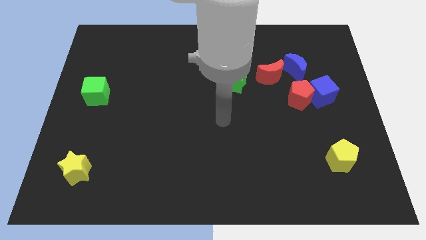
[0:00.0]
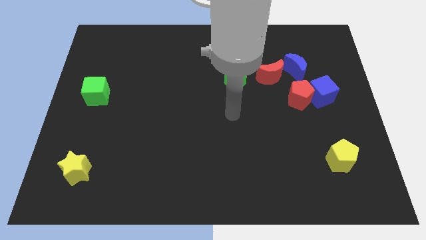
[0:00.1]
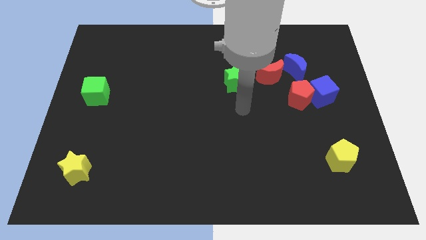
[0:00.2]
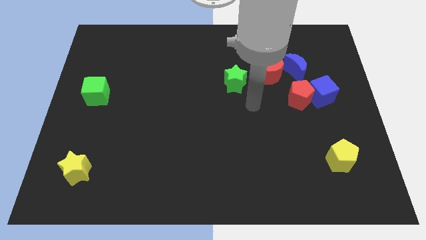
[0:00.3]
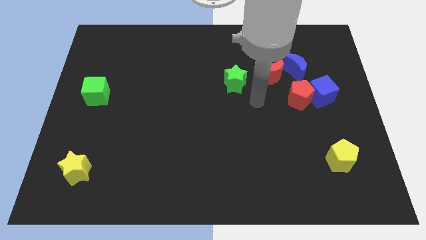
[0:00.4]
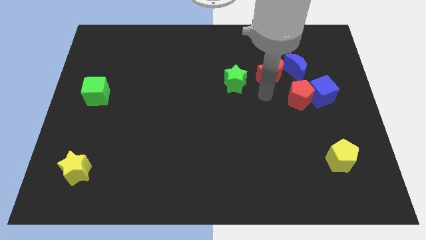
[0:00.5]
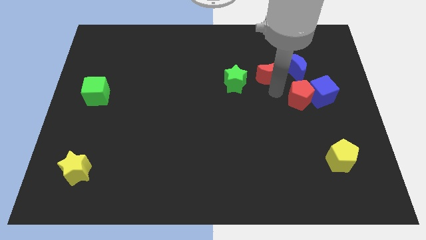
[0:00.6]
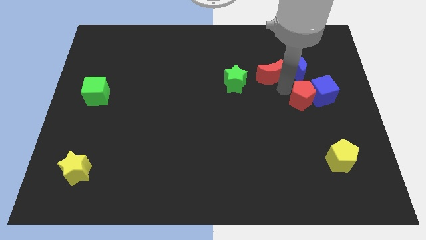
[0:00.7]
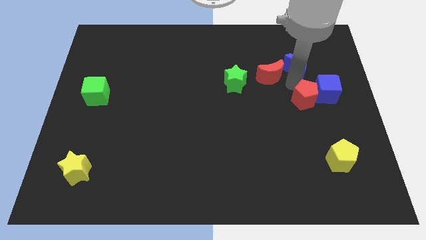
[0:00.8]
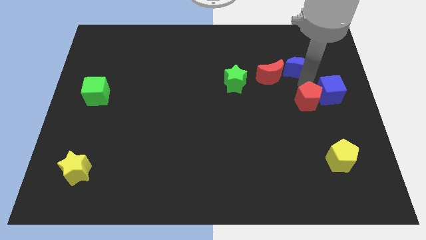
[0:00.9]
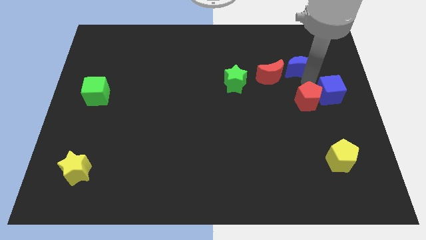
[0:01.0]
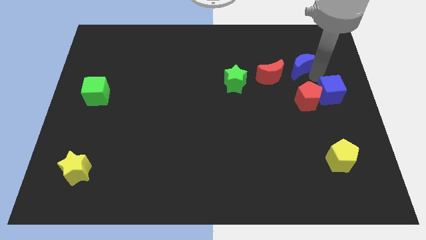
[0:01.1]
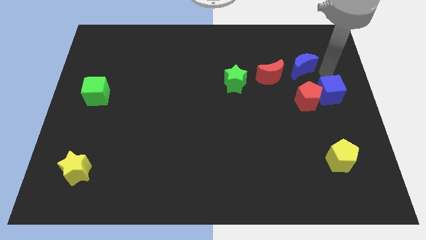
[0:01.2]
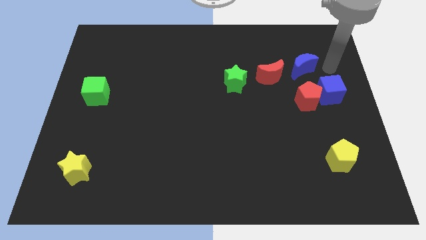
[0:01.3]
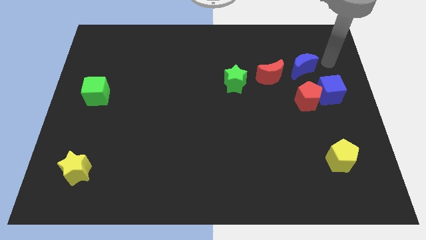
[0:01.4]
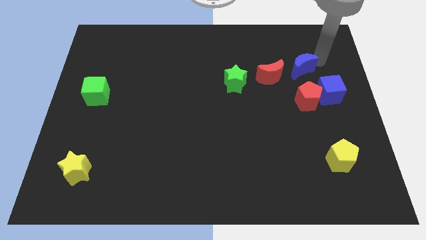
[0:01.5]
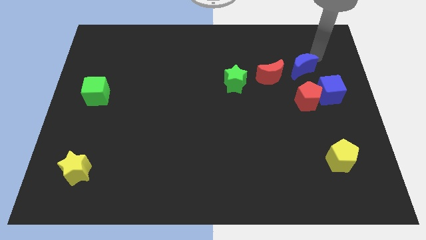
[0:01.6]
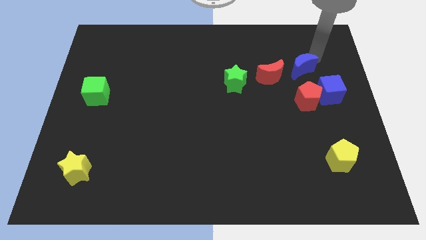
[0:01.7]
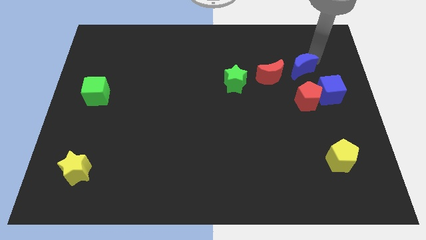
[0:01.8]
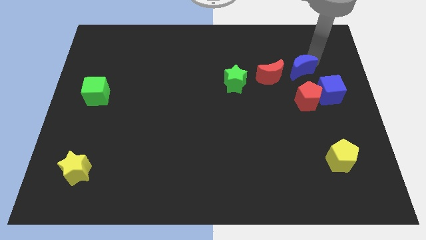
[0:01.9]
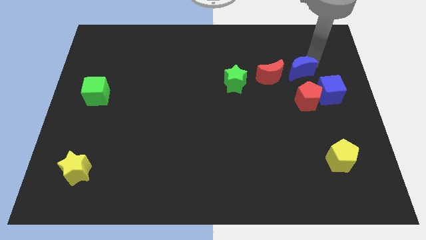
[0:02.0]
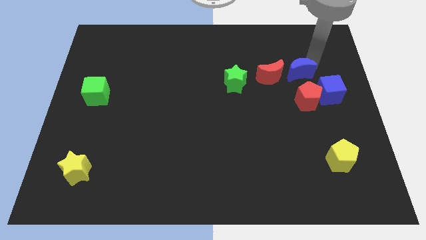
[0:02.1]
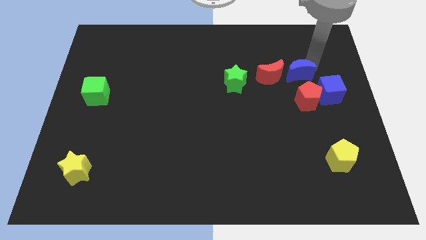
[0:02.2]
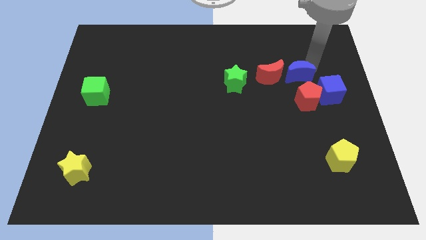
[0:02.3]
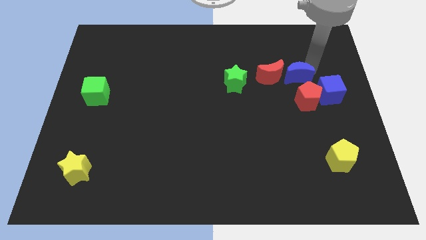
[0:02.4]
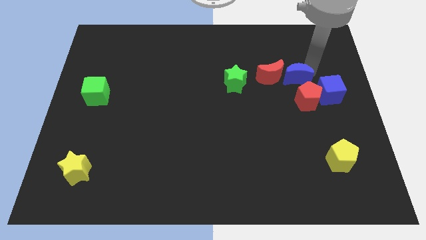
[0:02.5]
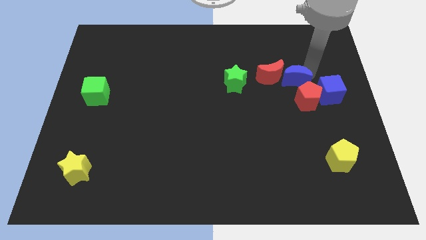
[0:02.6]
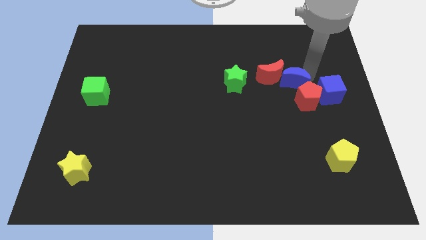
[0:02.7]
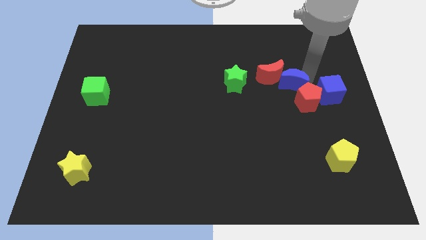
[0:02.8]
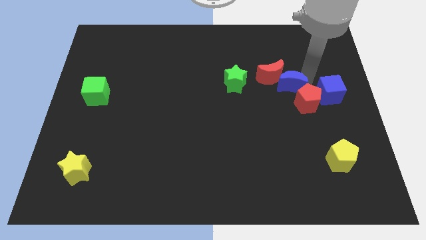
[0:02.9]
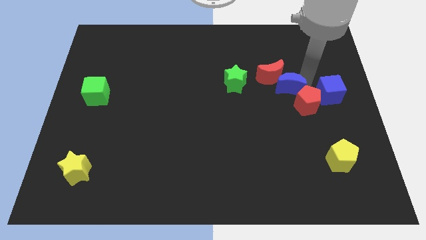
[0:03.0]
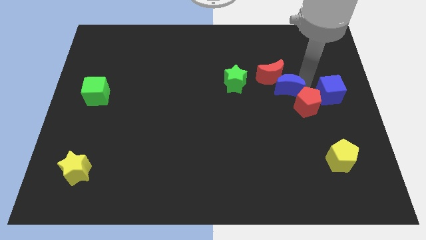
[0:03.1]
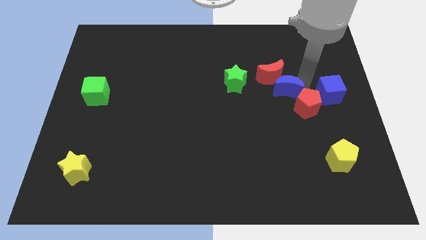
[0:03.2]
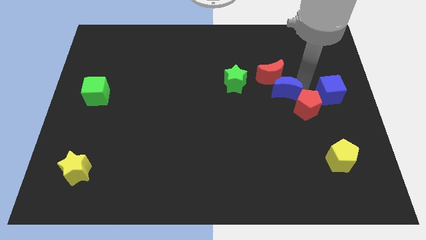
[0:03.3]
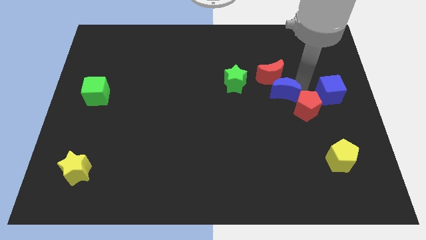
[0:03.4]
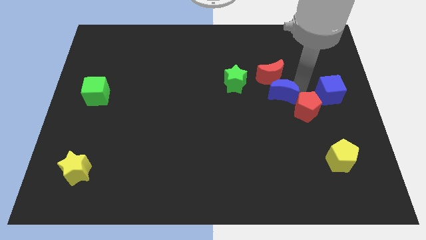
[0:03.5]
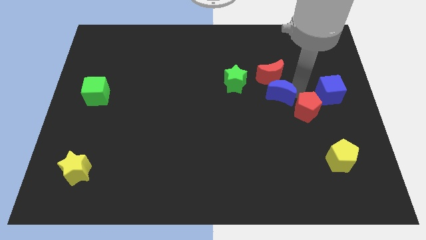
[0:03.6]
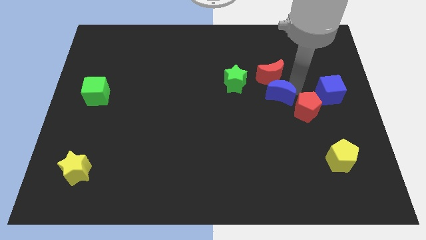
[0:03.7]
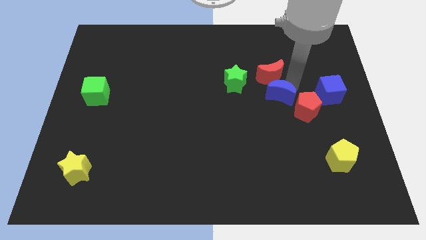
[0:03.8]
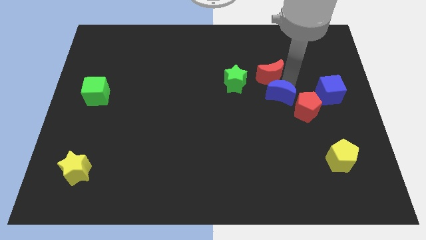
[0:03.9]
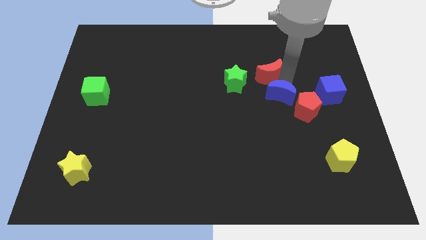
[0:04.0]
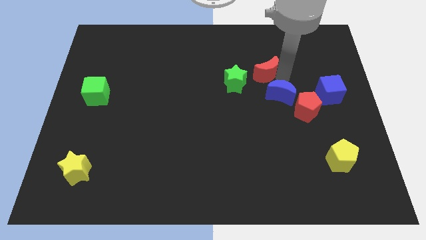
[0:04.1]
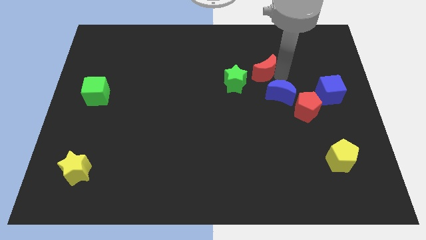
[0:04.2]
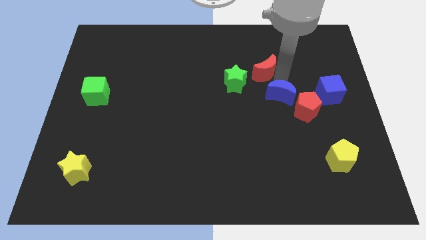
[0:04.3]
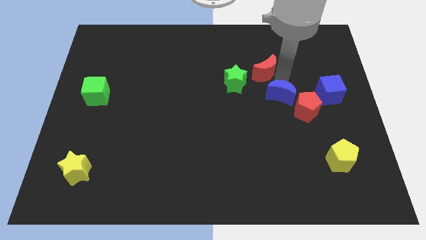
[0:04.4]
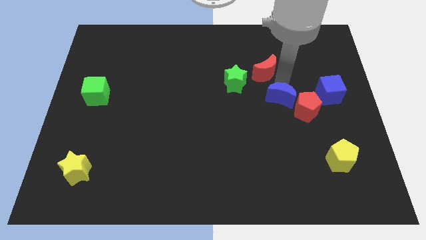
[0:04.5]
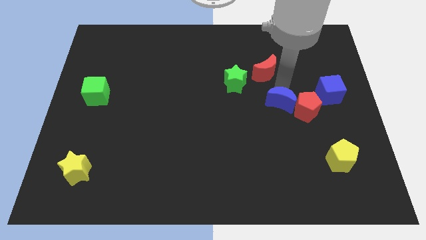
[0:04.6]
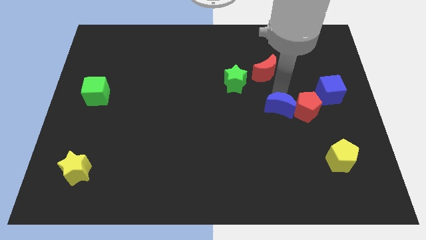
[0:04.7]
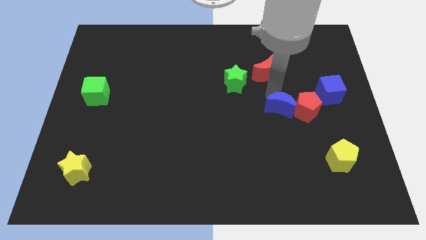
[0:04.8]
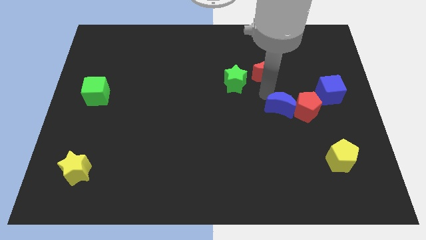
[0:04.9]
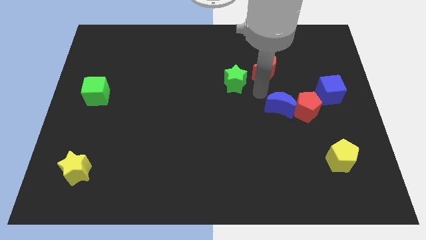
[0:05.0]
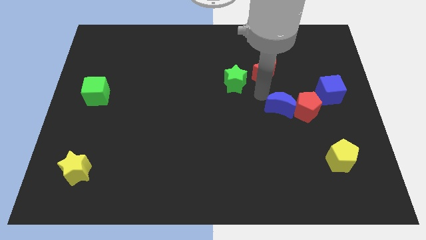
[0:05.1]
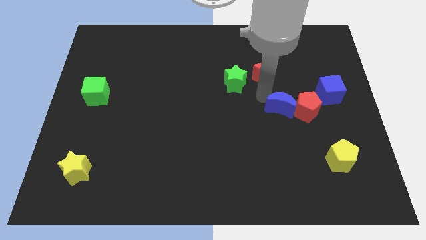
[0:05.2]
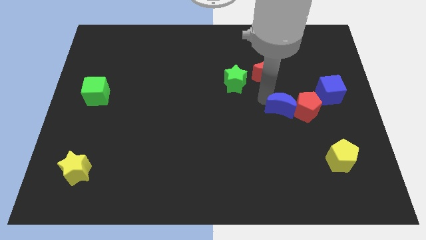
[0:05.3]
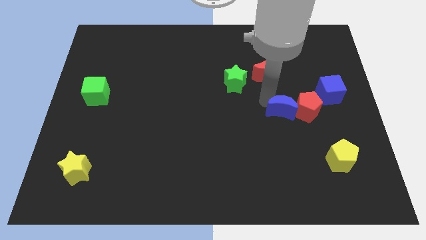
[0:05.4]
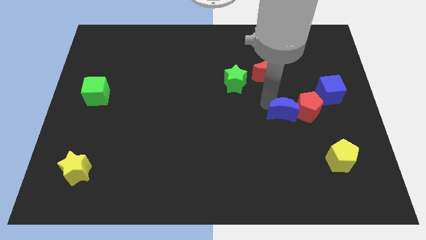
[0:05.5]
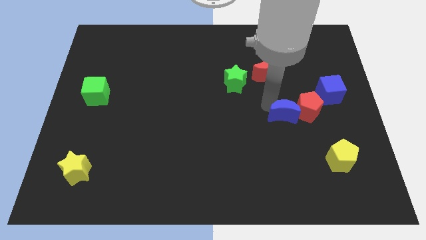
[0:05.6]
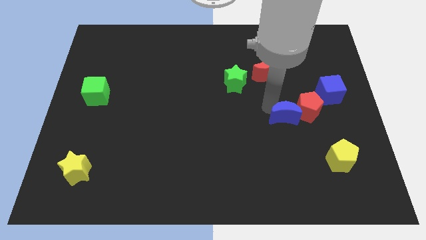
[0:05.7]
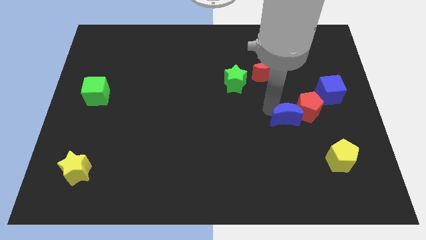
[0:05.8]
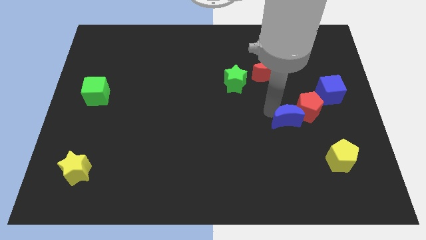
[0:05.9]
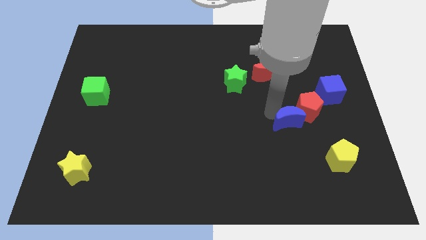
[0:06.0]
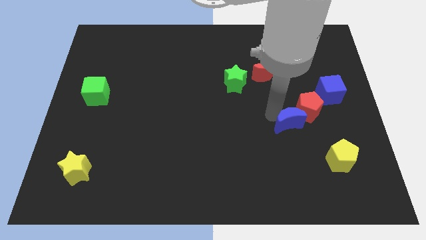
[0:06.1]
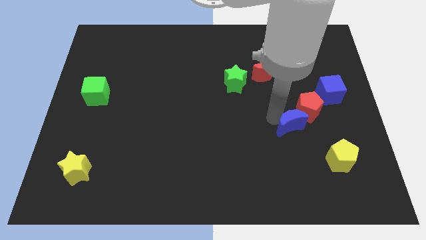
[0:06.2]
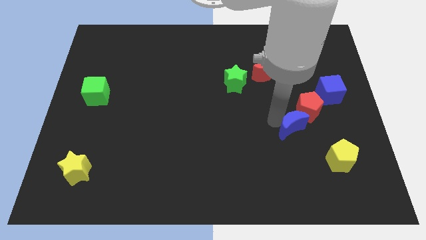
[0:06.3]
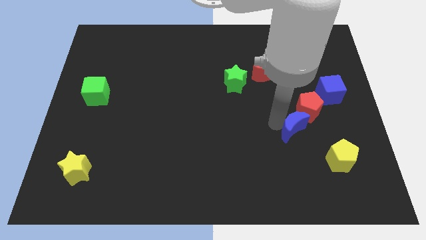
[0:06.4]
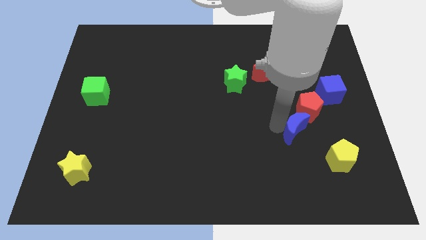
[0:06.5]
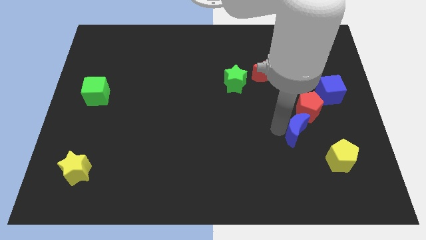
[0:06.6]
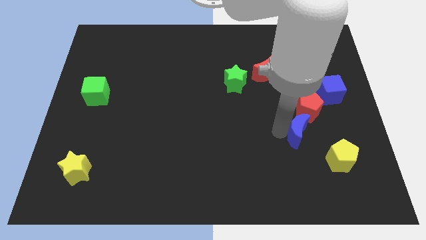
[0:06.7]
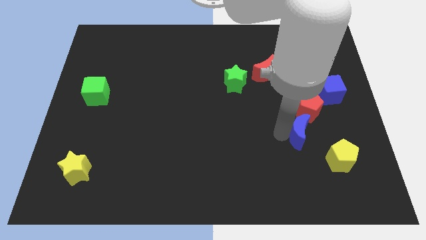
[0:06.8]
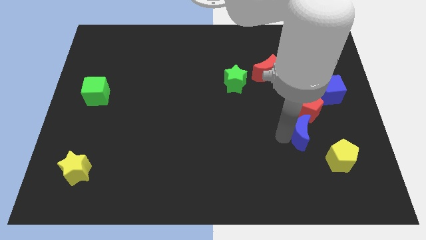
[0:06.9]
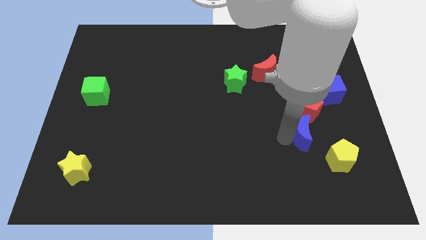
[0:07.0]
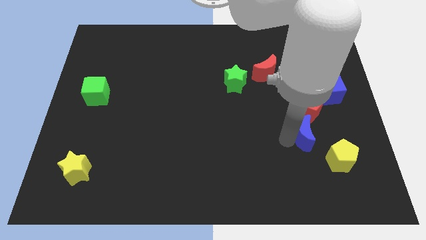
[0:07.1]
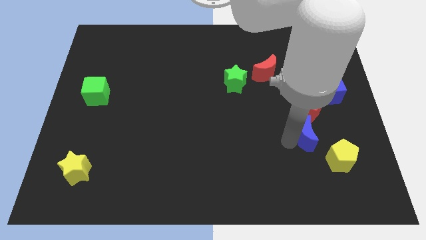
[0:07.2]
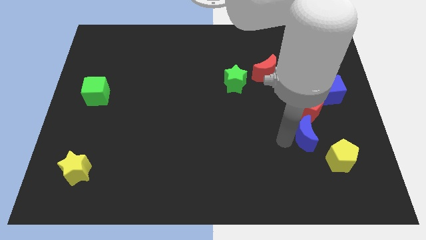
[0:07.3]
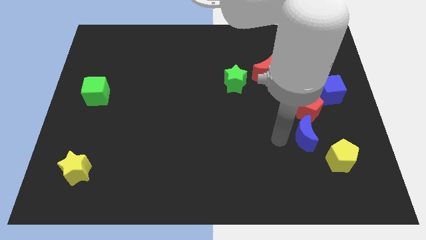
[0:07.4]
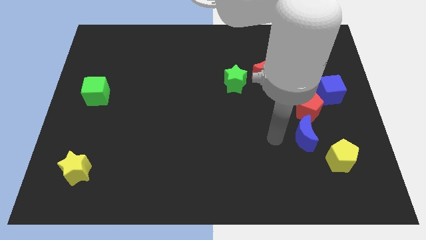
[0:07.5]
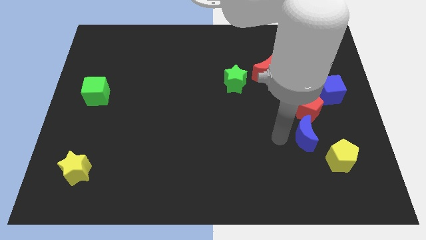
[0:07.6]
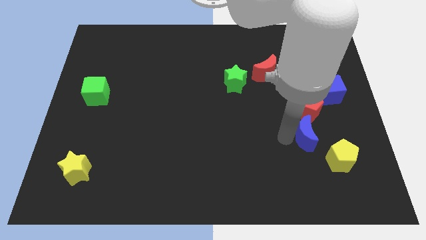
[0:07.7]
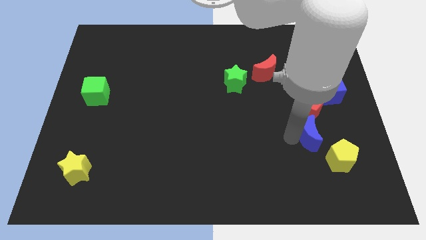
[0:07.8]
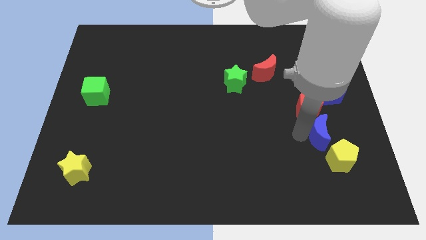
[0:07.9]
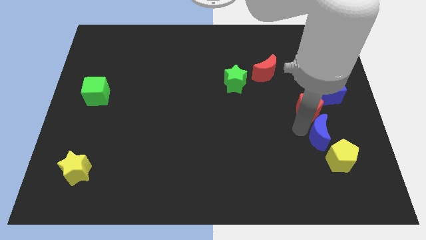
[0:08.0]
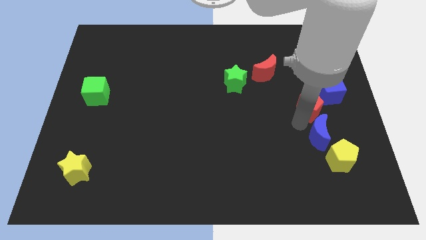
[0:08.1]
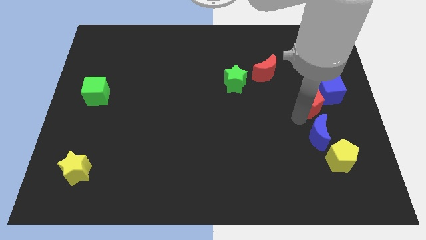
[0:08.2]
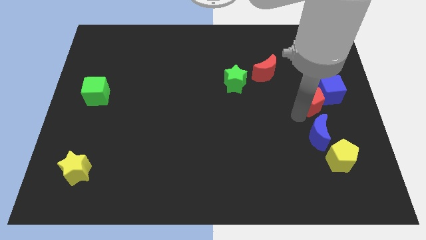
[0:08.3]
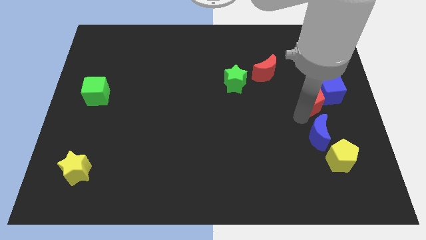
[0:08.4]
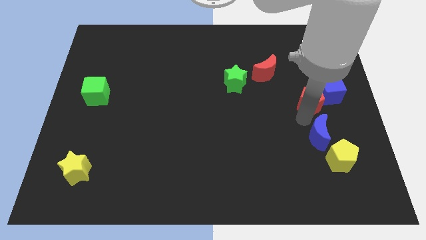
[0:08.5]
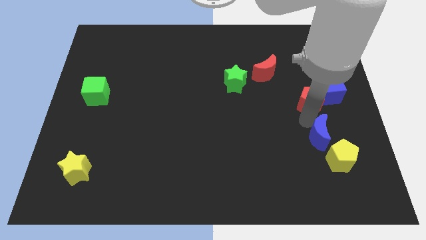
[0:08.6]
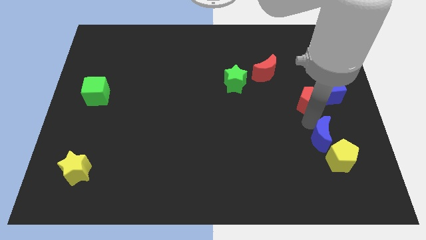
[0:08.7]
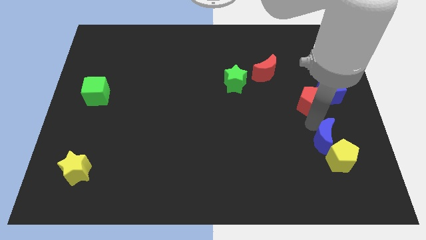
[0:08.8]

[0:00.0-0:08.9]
push the blue moon to the yellow pentagon
